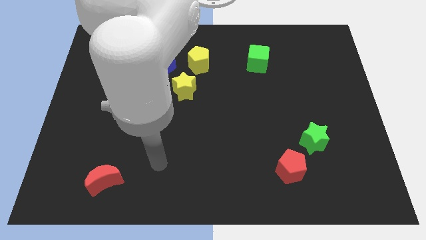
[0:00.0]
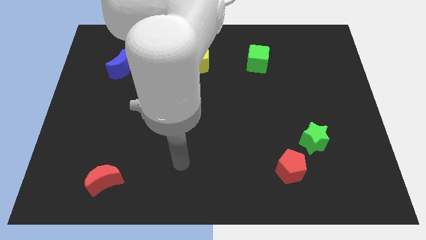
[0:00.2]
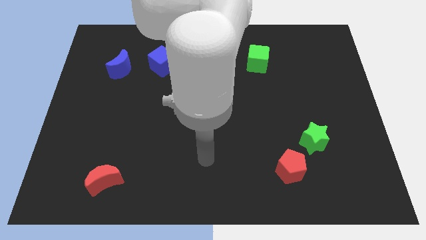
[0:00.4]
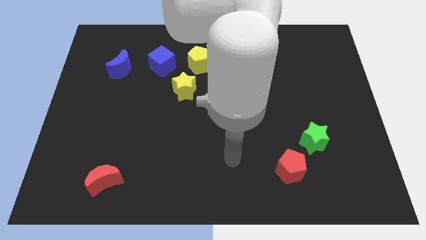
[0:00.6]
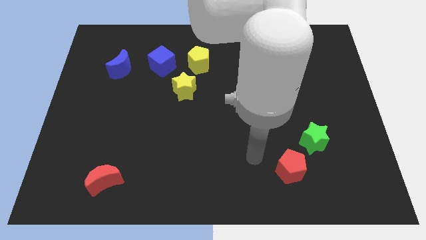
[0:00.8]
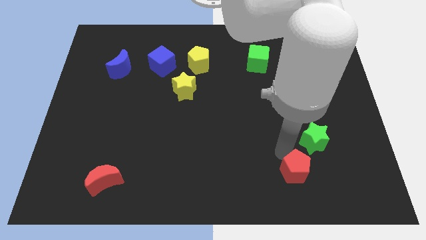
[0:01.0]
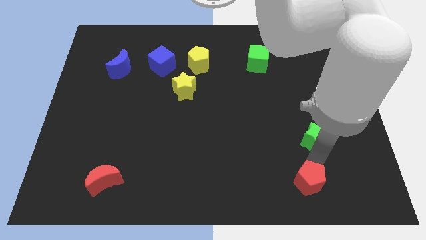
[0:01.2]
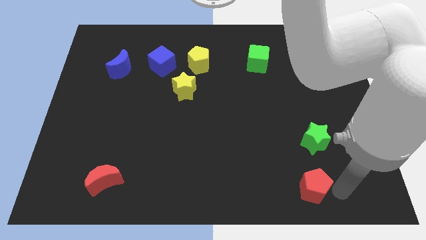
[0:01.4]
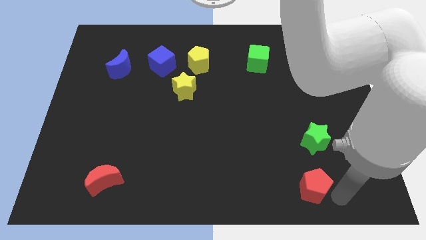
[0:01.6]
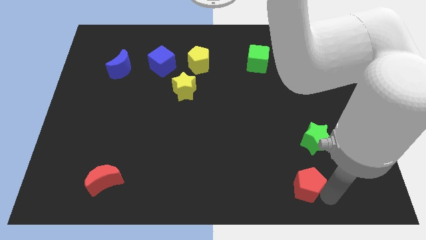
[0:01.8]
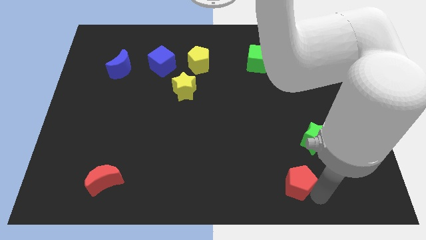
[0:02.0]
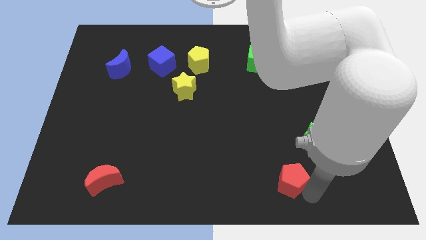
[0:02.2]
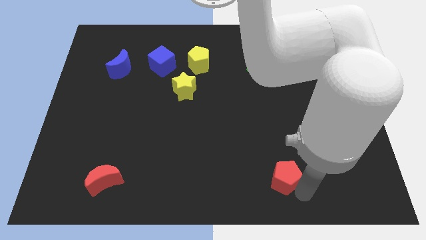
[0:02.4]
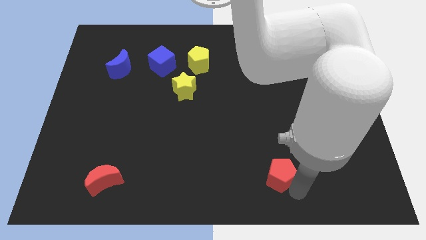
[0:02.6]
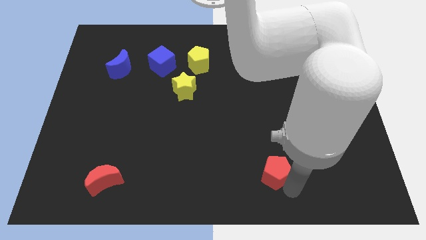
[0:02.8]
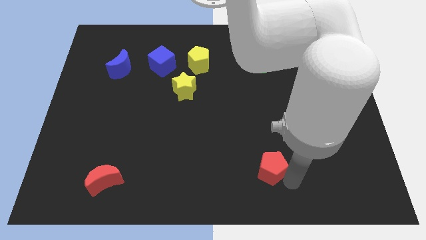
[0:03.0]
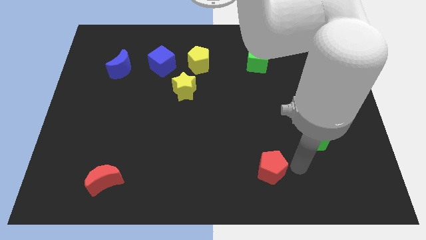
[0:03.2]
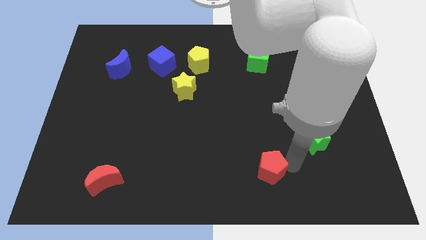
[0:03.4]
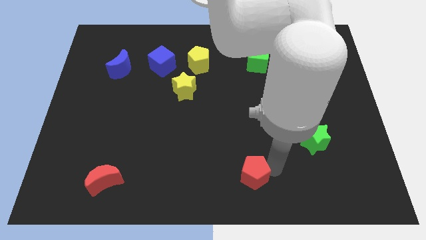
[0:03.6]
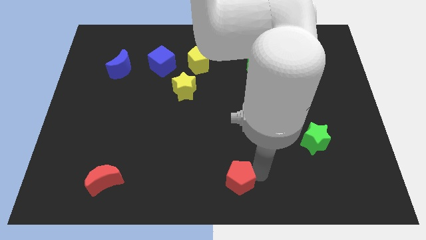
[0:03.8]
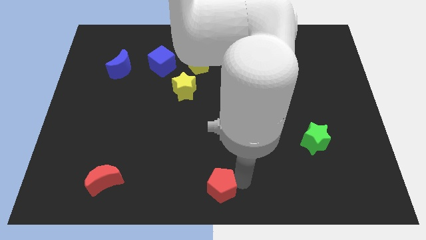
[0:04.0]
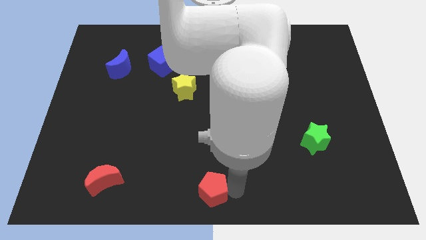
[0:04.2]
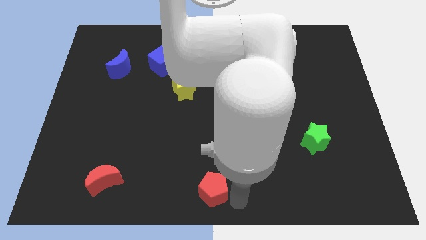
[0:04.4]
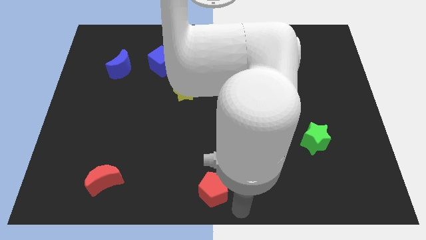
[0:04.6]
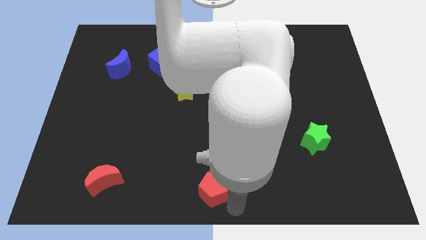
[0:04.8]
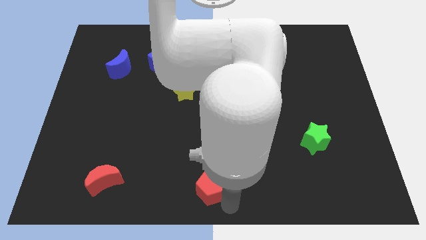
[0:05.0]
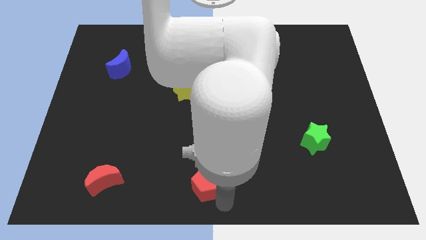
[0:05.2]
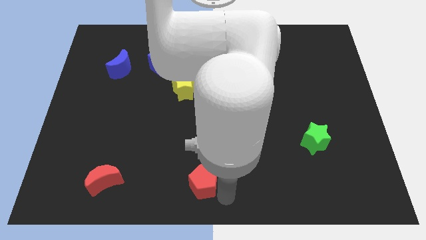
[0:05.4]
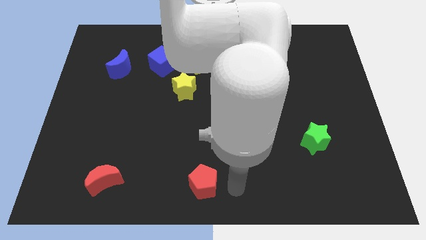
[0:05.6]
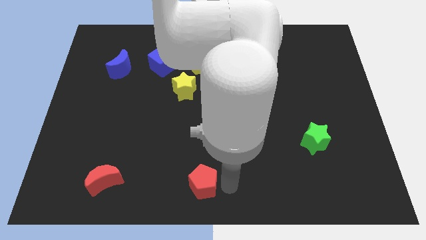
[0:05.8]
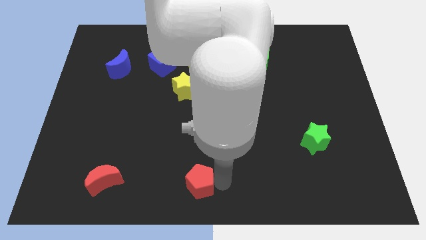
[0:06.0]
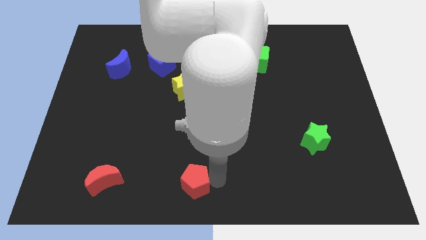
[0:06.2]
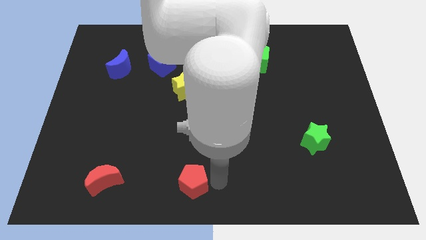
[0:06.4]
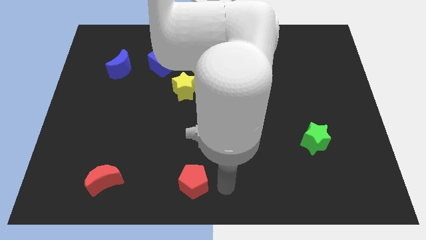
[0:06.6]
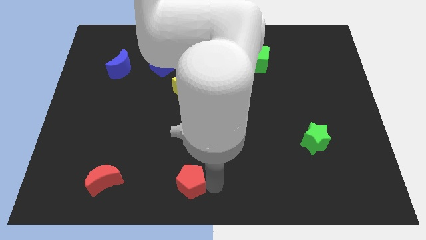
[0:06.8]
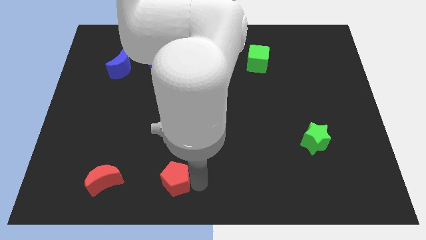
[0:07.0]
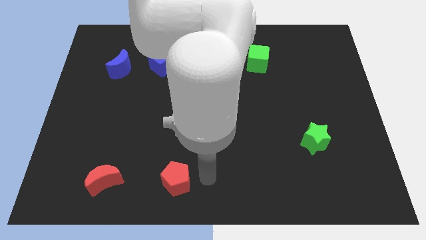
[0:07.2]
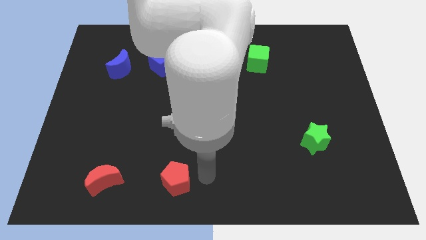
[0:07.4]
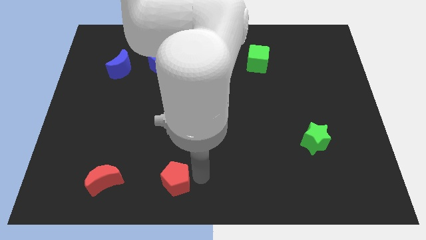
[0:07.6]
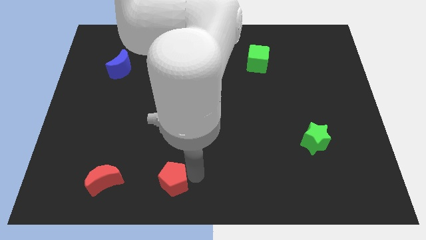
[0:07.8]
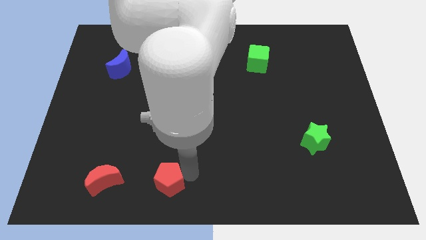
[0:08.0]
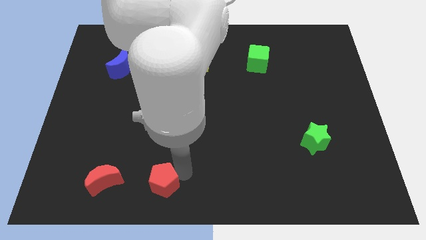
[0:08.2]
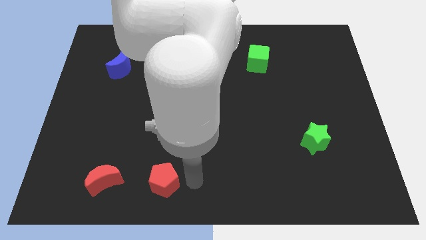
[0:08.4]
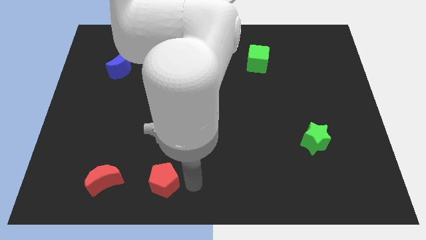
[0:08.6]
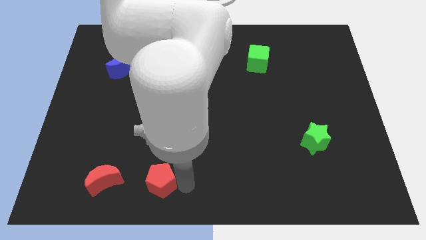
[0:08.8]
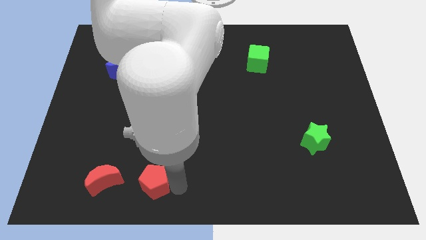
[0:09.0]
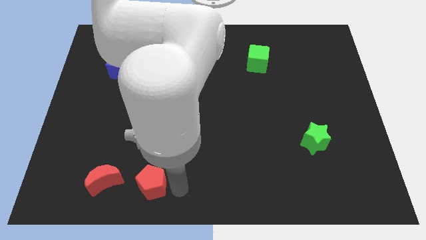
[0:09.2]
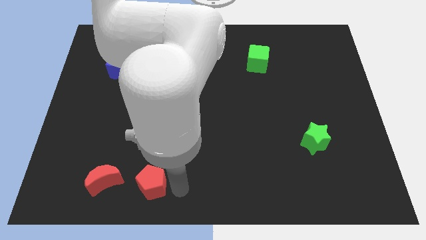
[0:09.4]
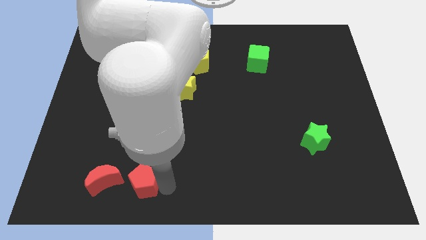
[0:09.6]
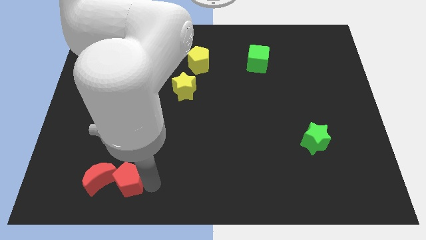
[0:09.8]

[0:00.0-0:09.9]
put the red pentagon close to the red moon

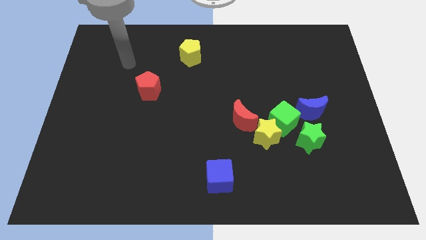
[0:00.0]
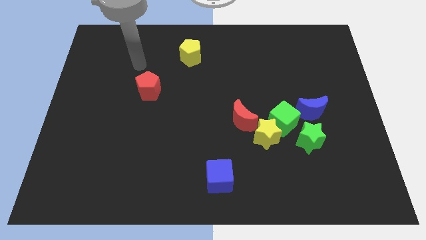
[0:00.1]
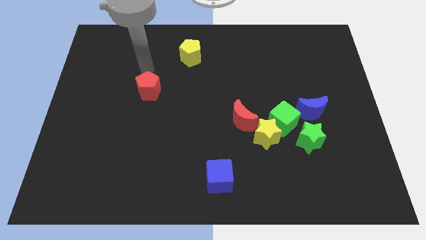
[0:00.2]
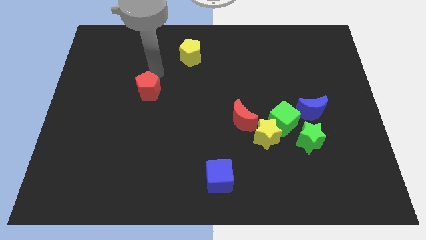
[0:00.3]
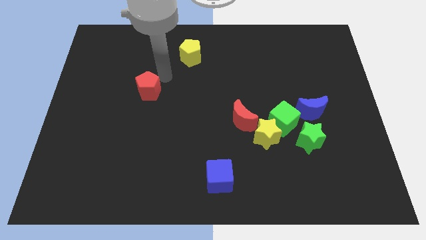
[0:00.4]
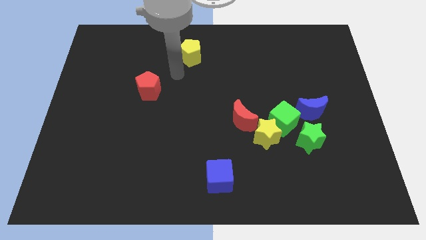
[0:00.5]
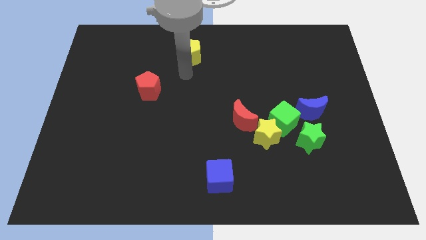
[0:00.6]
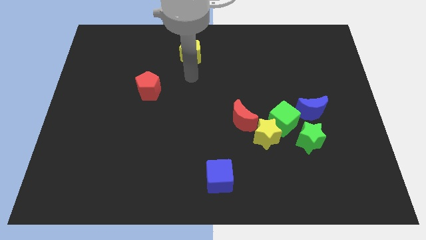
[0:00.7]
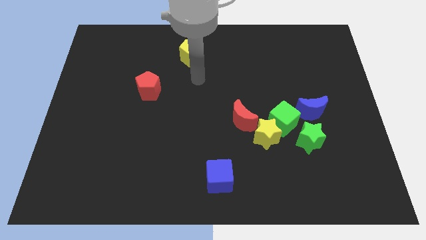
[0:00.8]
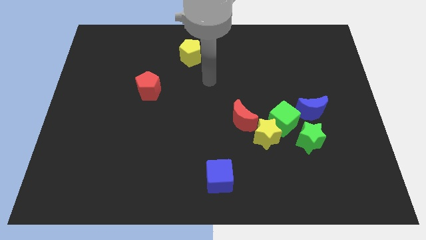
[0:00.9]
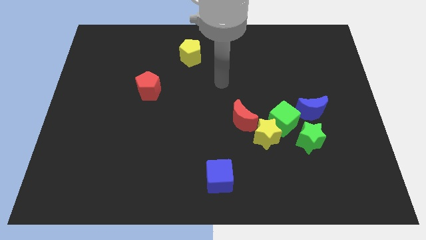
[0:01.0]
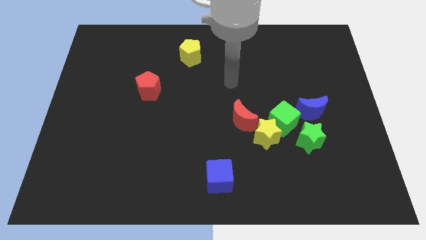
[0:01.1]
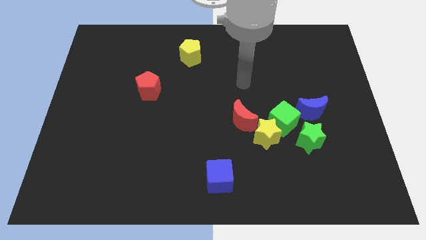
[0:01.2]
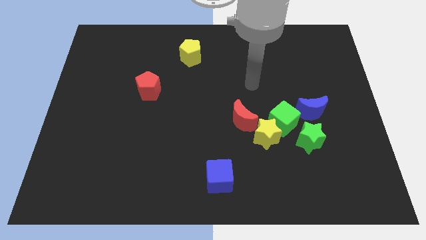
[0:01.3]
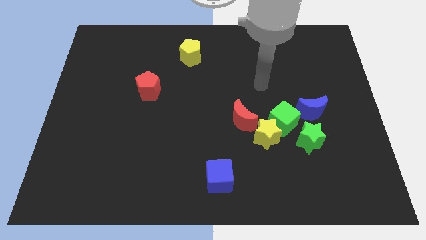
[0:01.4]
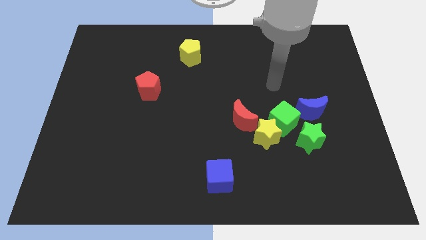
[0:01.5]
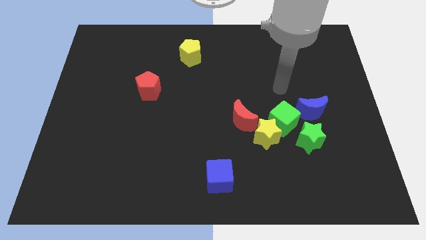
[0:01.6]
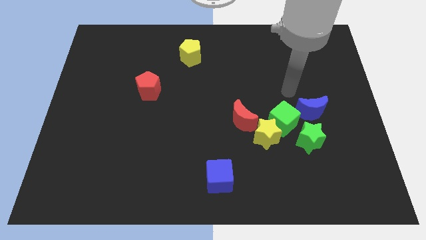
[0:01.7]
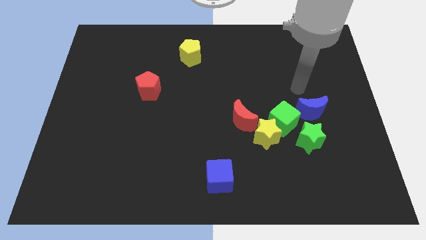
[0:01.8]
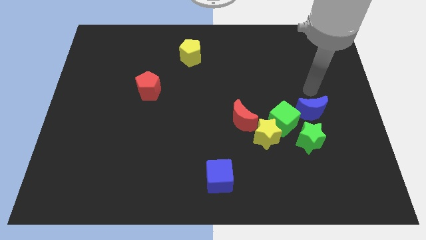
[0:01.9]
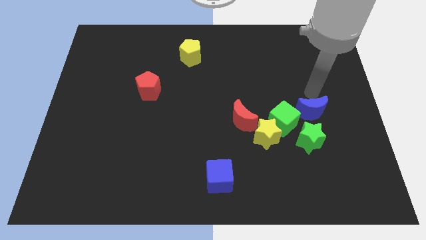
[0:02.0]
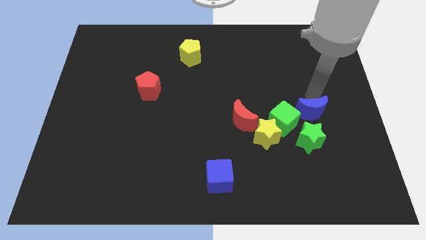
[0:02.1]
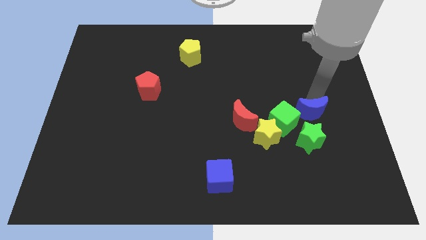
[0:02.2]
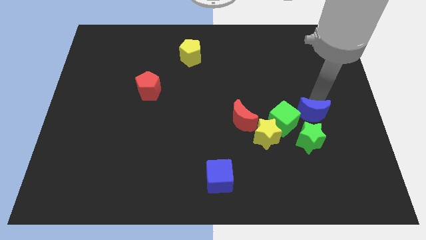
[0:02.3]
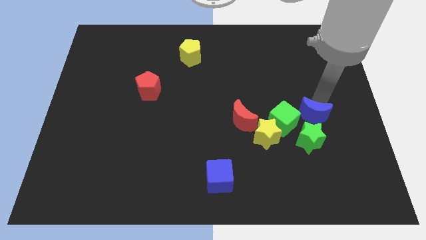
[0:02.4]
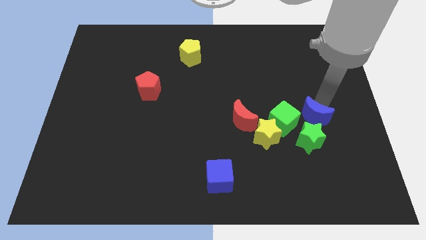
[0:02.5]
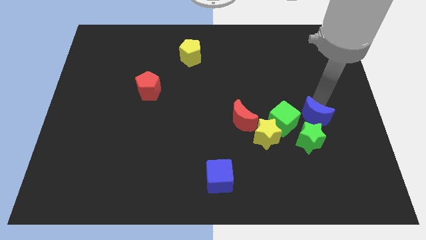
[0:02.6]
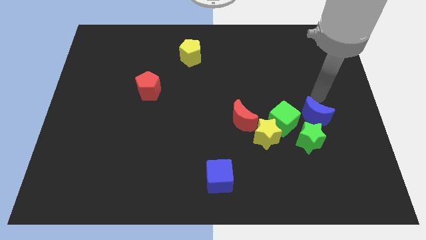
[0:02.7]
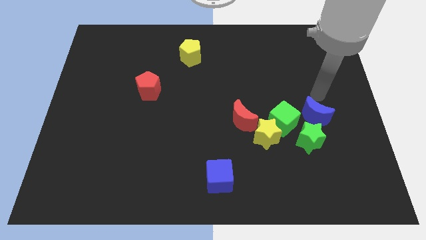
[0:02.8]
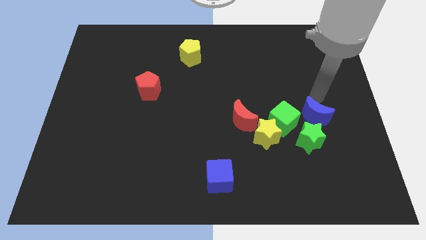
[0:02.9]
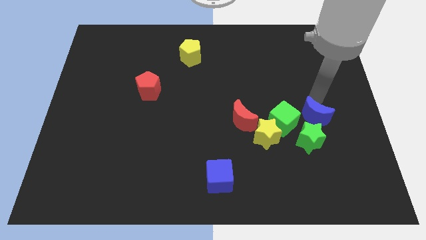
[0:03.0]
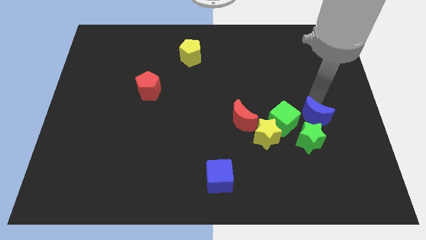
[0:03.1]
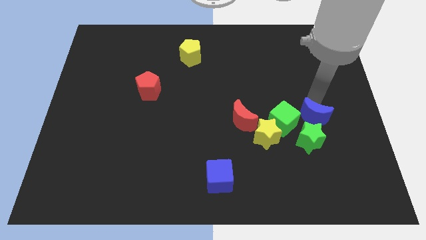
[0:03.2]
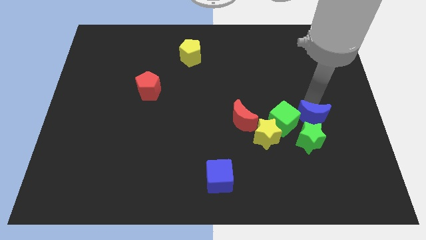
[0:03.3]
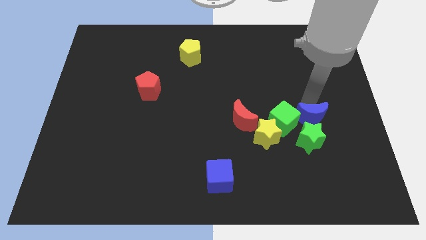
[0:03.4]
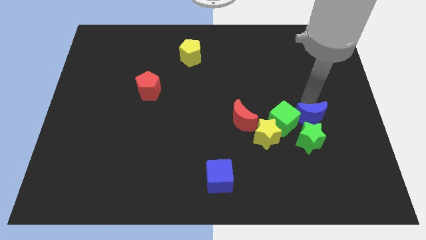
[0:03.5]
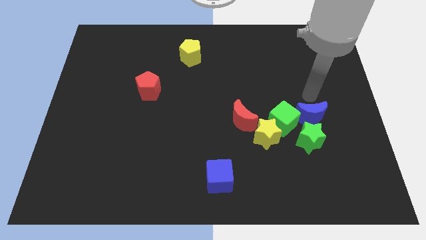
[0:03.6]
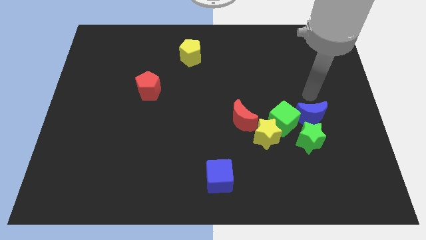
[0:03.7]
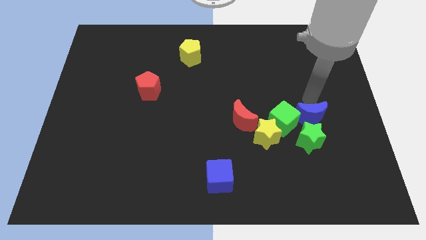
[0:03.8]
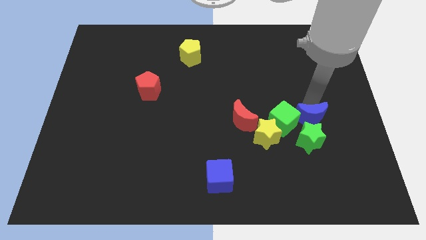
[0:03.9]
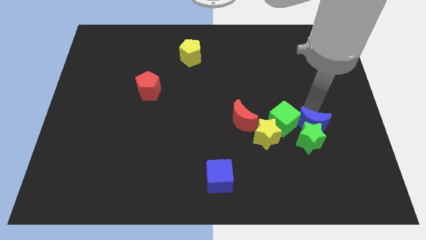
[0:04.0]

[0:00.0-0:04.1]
slide the blue moon next to the green star
